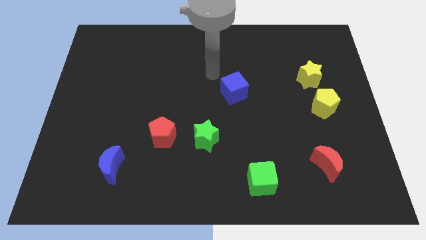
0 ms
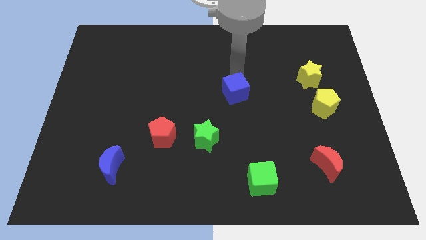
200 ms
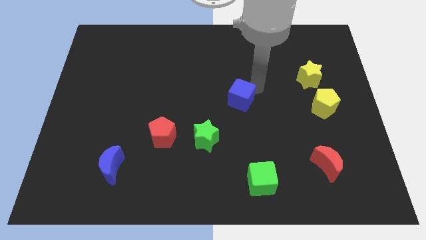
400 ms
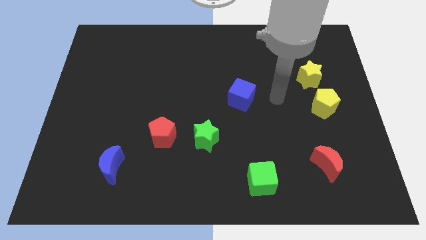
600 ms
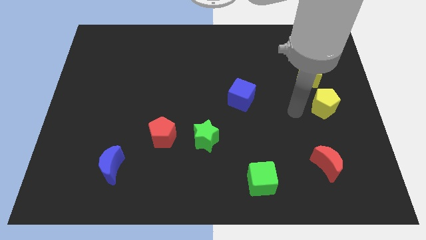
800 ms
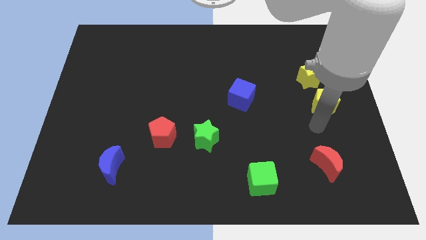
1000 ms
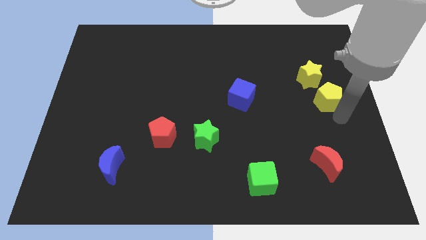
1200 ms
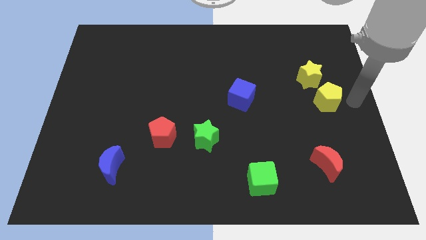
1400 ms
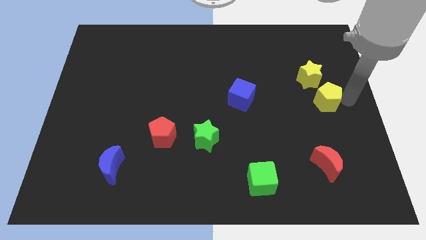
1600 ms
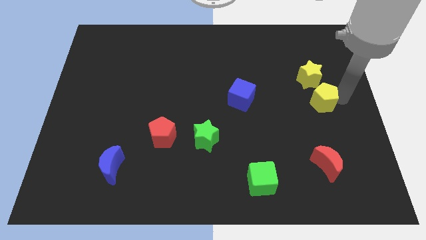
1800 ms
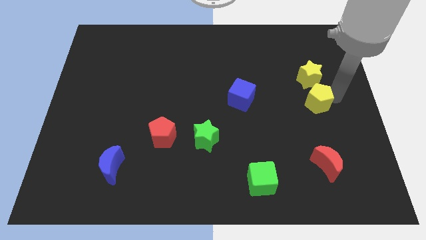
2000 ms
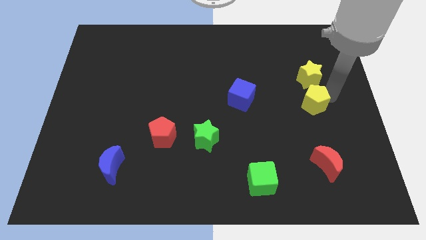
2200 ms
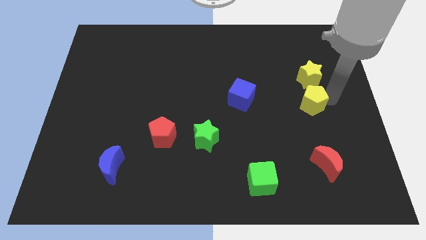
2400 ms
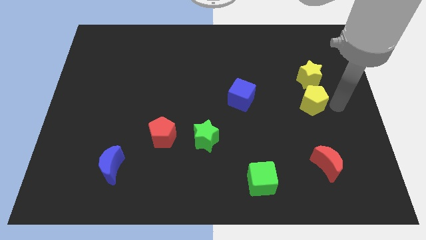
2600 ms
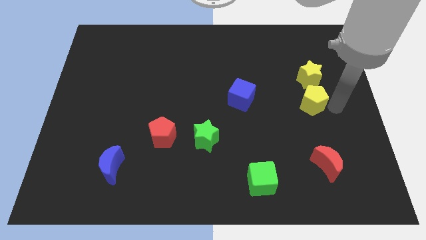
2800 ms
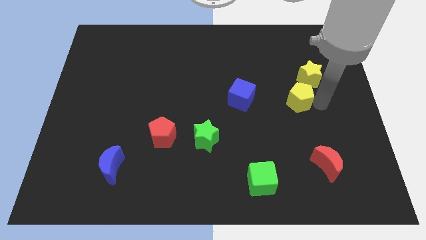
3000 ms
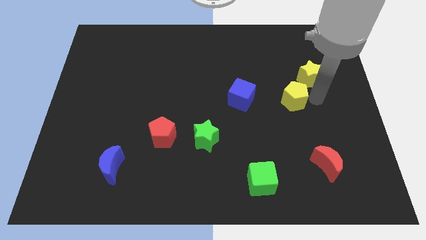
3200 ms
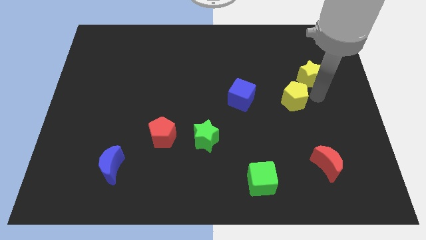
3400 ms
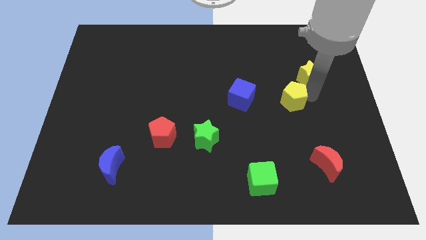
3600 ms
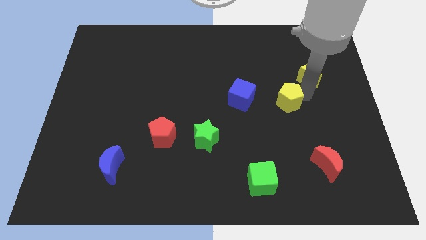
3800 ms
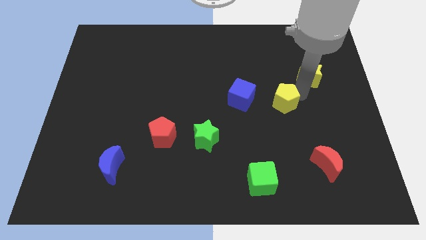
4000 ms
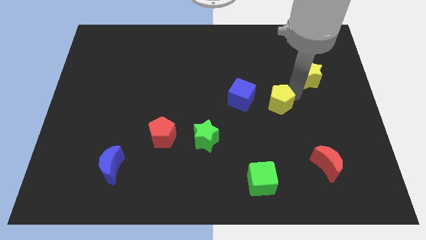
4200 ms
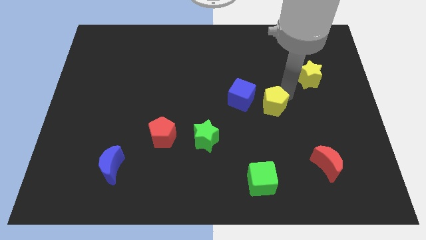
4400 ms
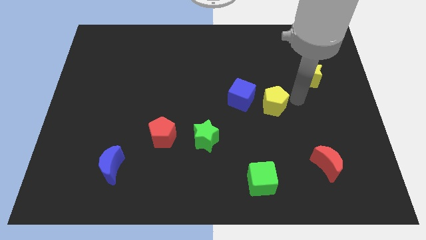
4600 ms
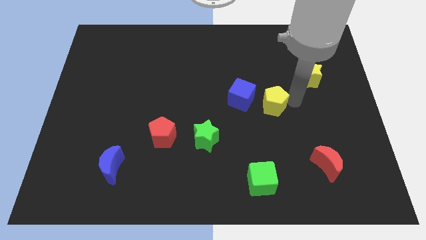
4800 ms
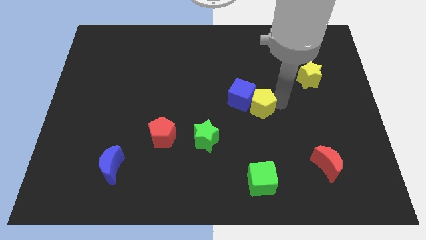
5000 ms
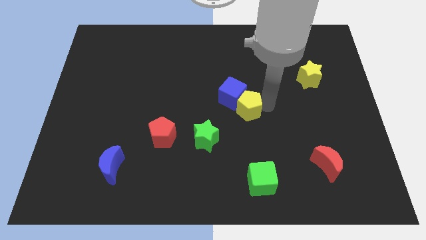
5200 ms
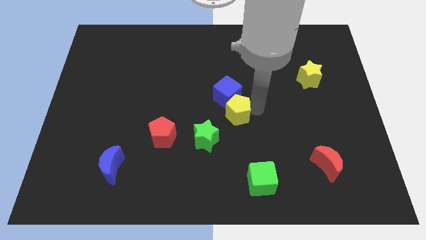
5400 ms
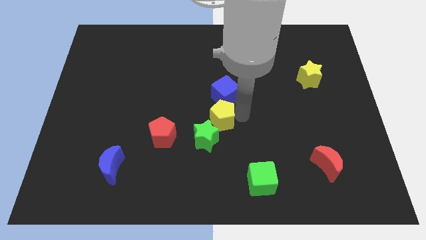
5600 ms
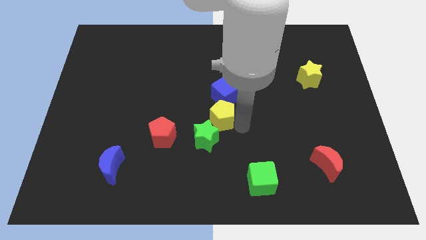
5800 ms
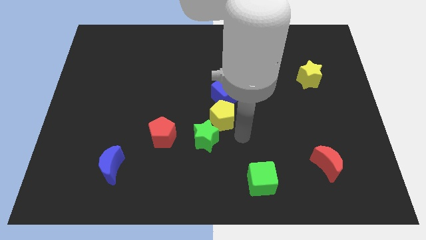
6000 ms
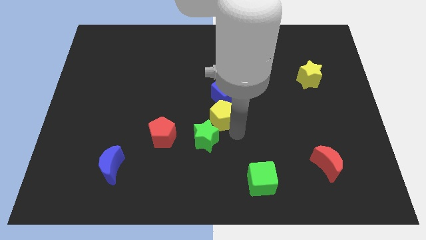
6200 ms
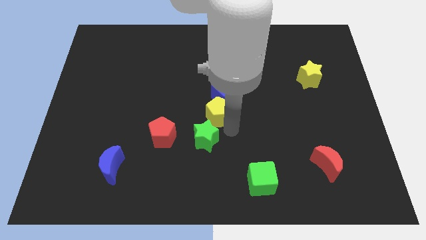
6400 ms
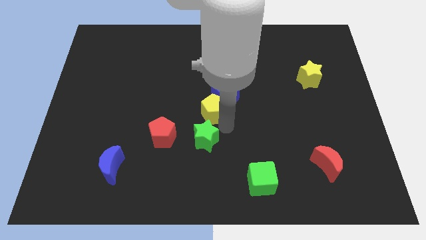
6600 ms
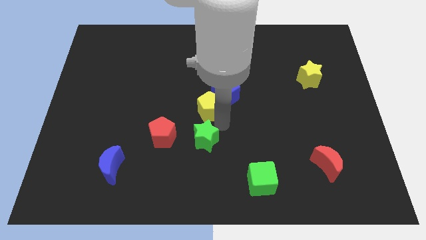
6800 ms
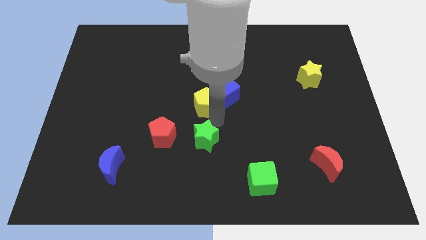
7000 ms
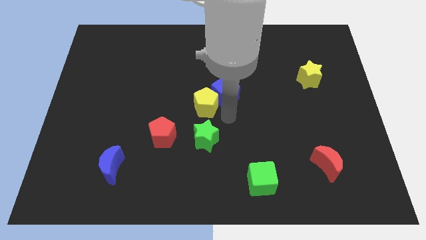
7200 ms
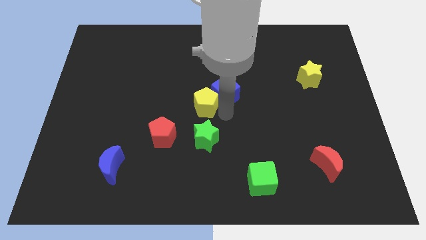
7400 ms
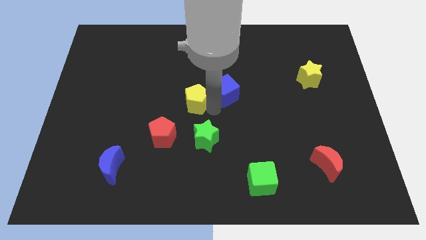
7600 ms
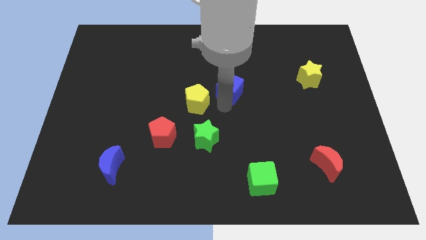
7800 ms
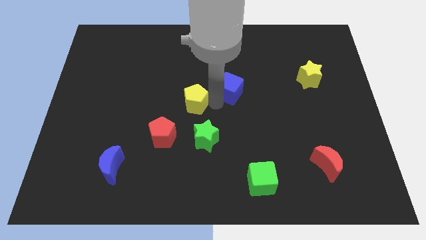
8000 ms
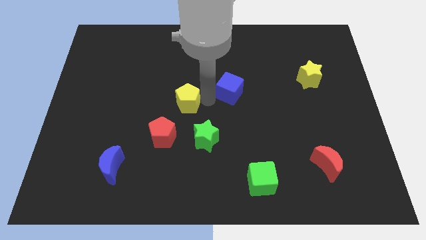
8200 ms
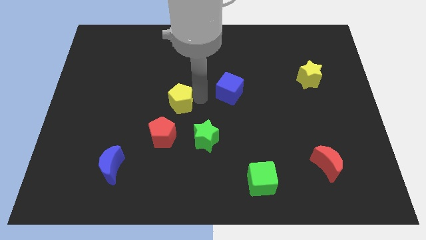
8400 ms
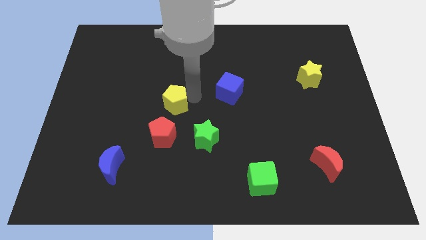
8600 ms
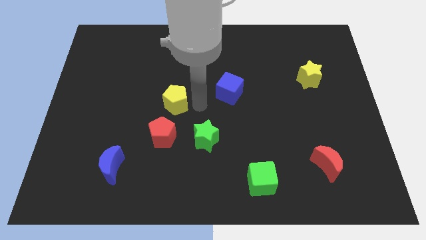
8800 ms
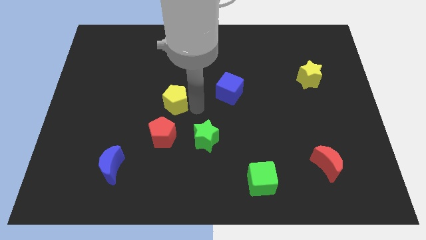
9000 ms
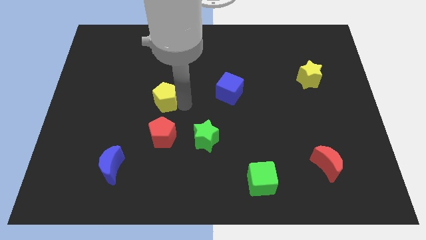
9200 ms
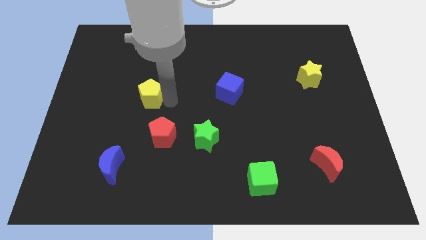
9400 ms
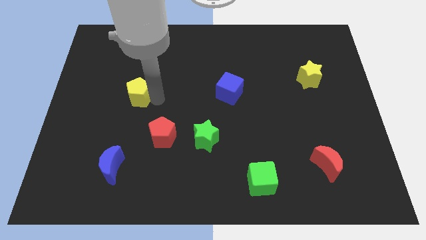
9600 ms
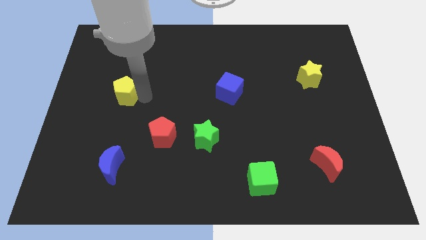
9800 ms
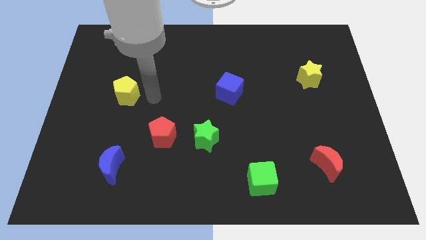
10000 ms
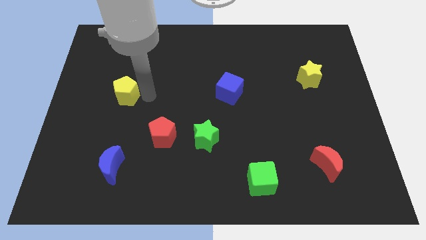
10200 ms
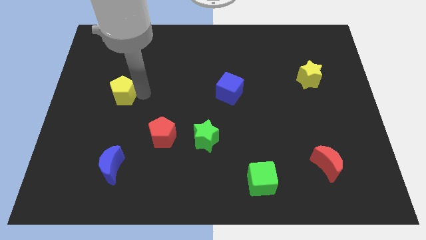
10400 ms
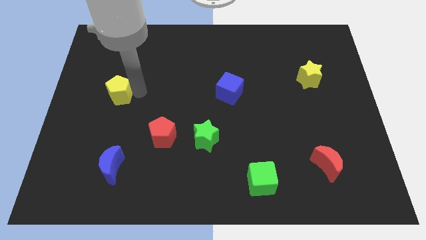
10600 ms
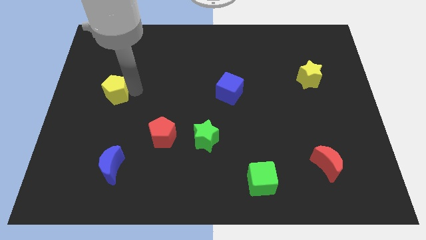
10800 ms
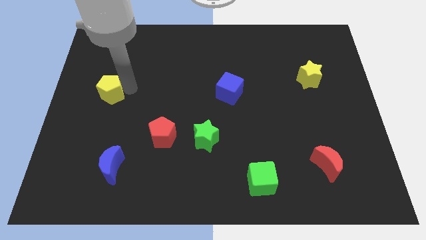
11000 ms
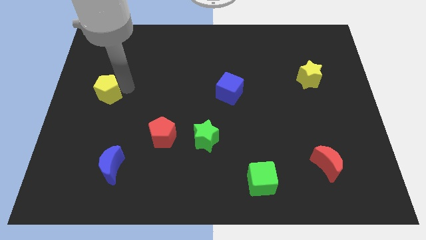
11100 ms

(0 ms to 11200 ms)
slide the yellow pentagon to the left side of the board
